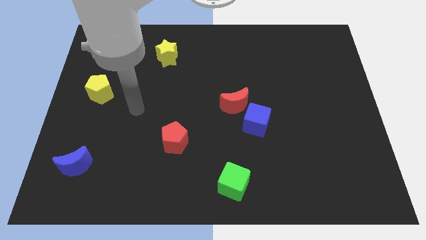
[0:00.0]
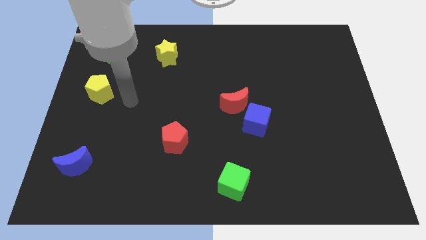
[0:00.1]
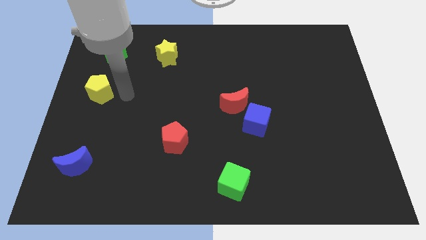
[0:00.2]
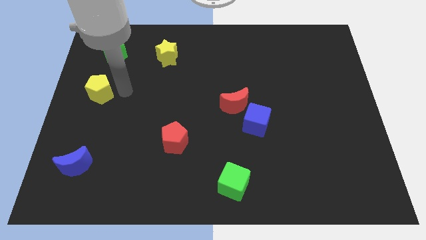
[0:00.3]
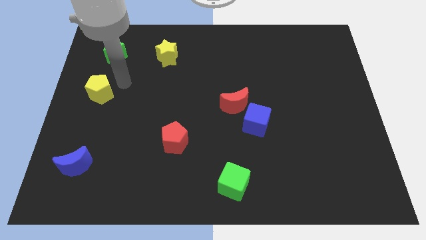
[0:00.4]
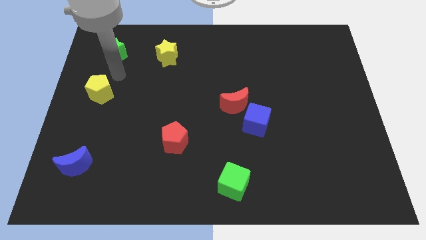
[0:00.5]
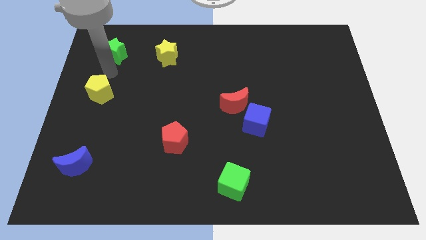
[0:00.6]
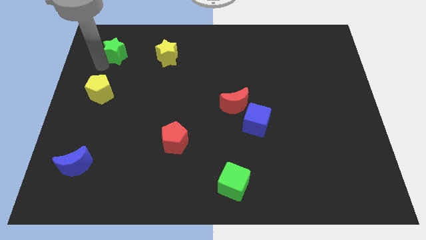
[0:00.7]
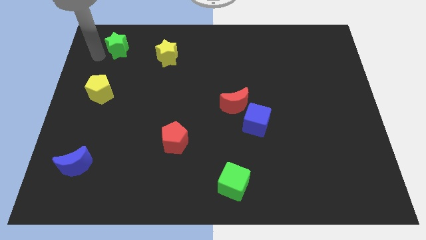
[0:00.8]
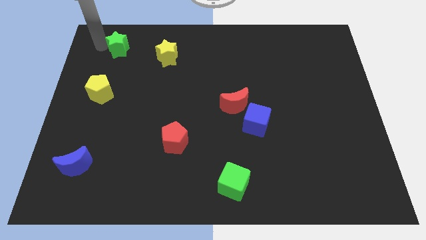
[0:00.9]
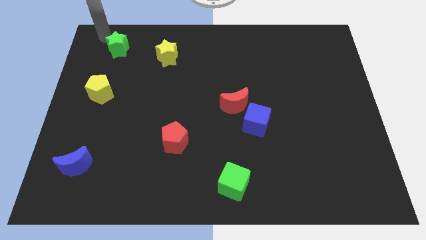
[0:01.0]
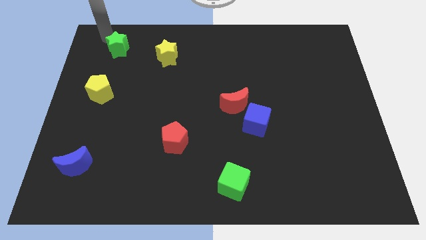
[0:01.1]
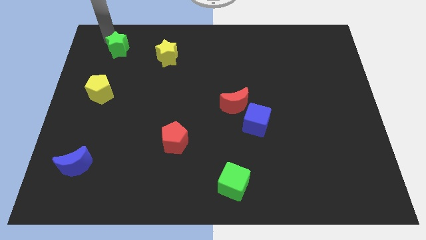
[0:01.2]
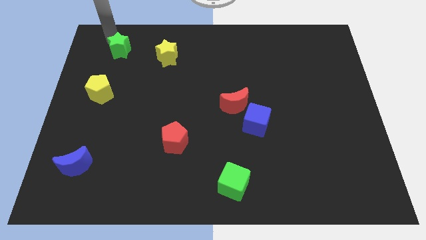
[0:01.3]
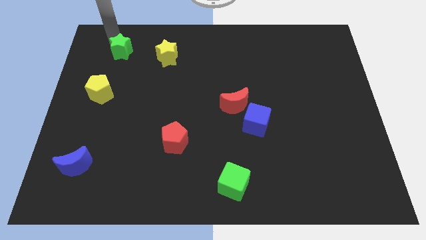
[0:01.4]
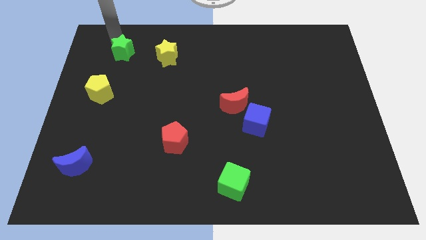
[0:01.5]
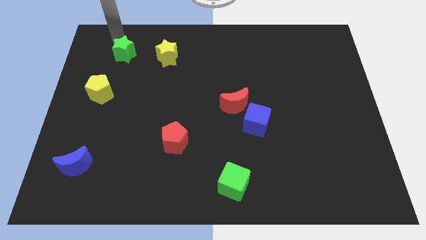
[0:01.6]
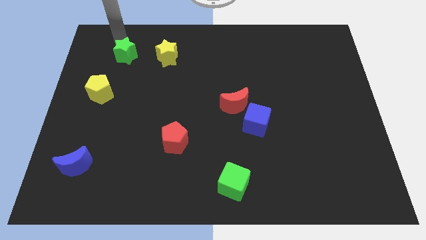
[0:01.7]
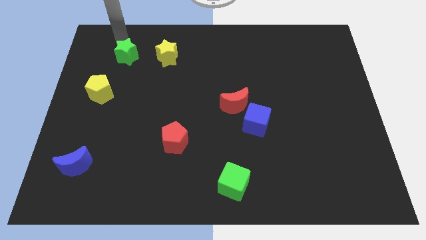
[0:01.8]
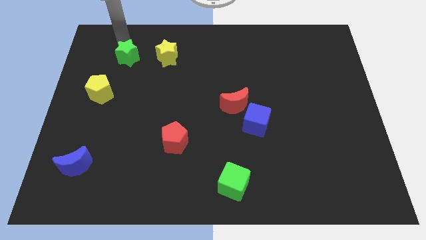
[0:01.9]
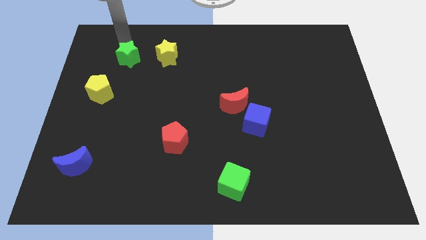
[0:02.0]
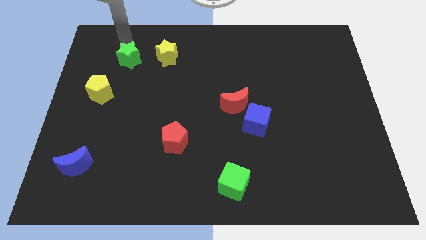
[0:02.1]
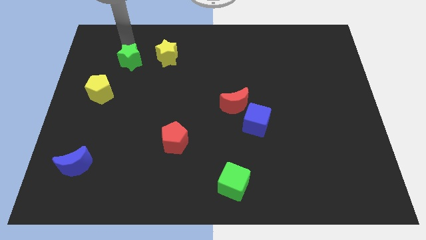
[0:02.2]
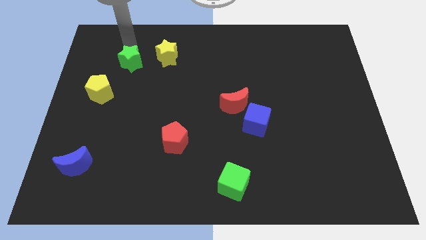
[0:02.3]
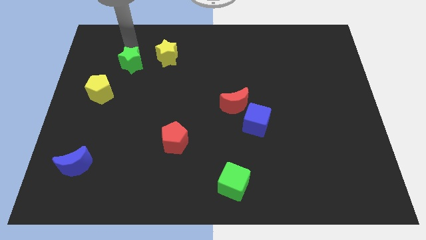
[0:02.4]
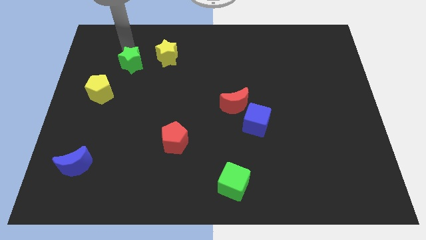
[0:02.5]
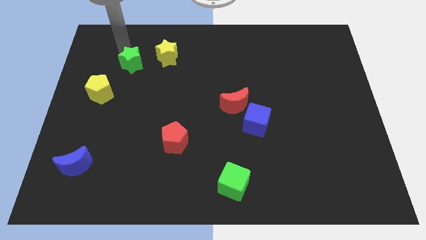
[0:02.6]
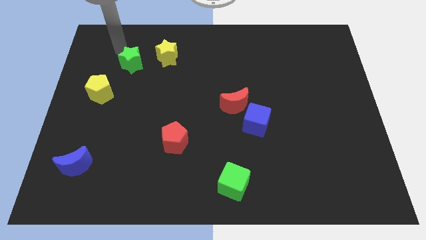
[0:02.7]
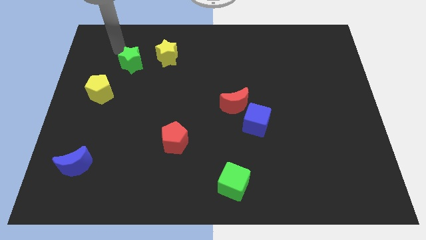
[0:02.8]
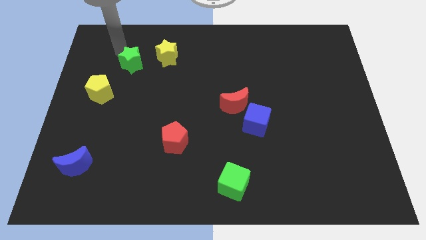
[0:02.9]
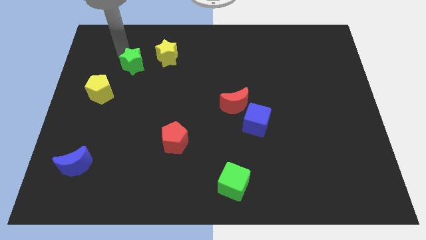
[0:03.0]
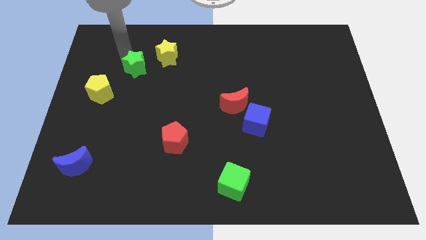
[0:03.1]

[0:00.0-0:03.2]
slightly slide the green star downwards and then to the right

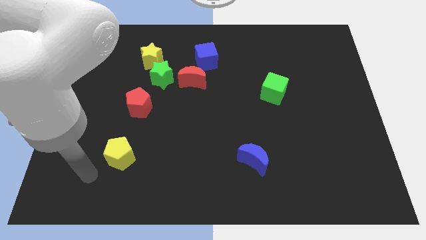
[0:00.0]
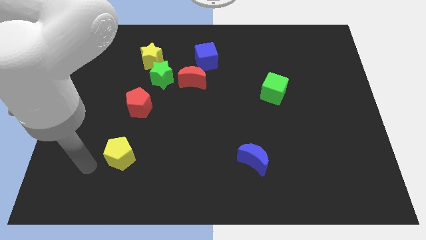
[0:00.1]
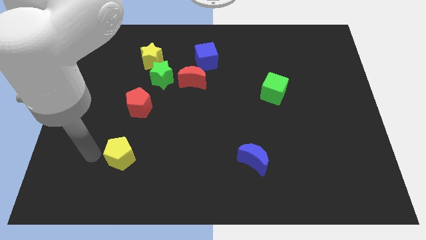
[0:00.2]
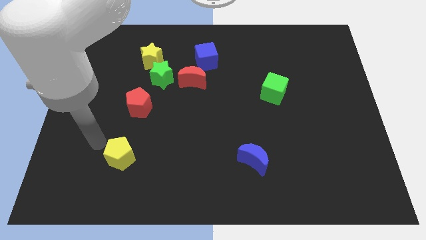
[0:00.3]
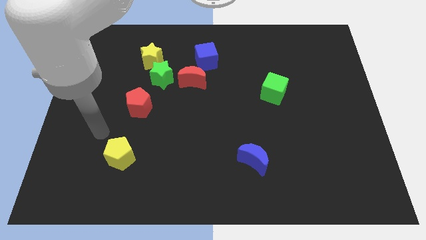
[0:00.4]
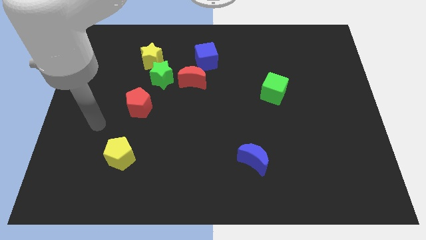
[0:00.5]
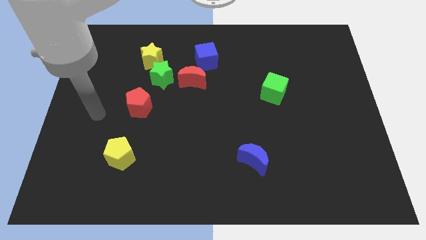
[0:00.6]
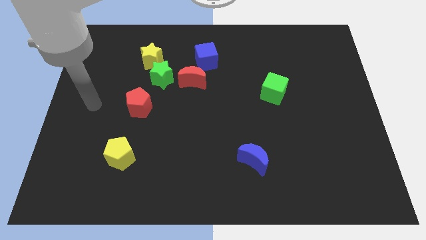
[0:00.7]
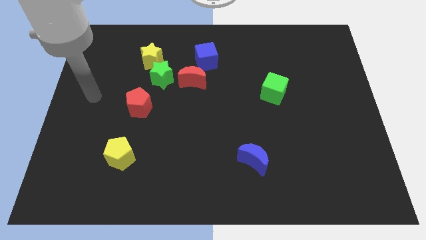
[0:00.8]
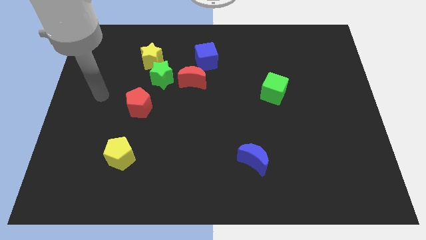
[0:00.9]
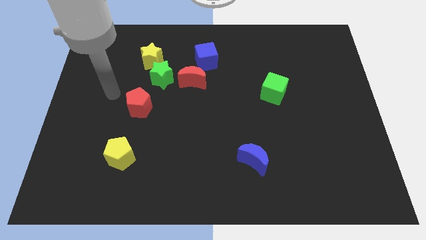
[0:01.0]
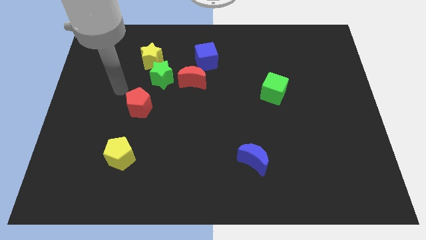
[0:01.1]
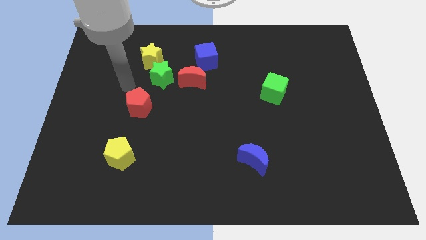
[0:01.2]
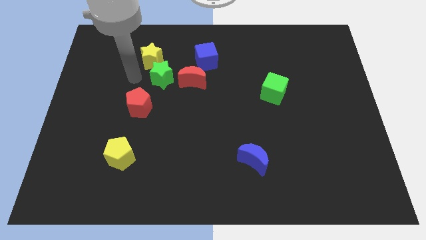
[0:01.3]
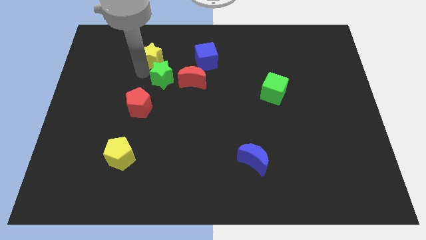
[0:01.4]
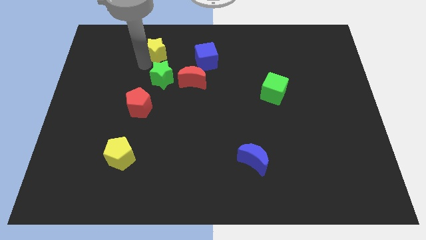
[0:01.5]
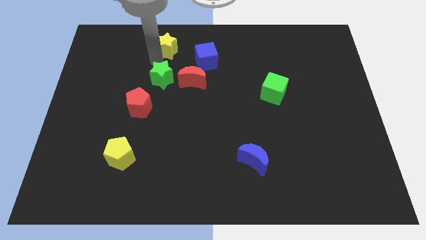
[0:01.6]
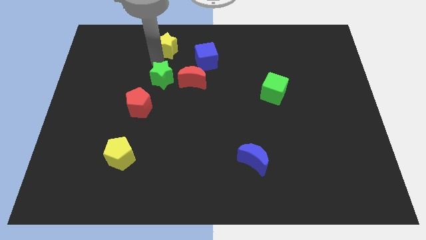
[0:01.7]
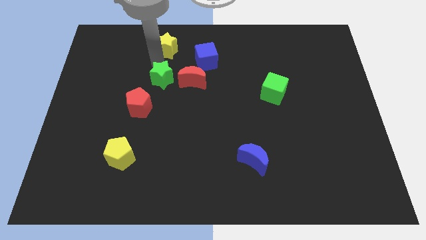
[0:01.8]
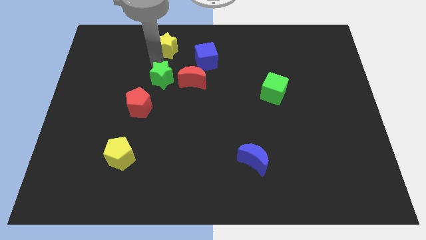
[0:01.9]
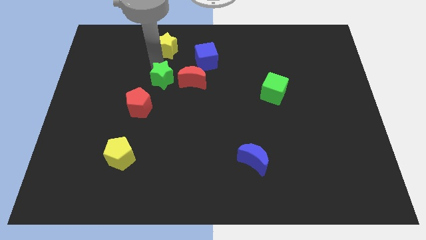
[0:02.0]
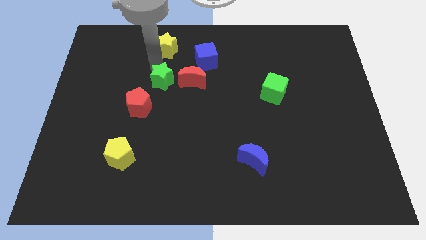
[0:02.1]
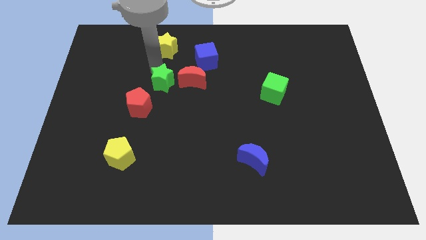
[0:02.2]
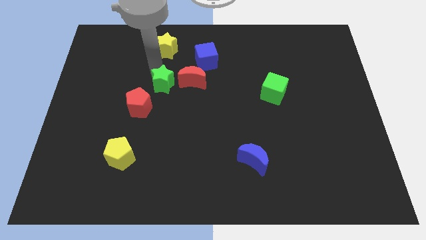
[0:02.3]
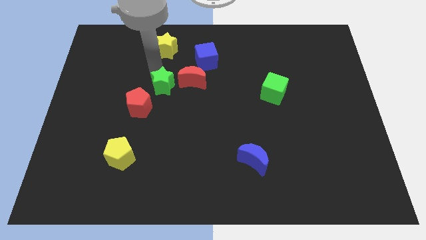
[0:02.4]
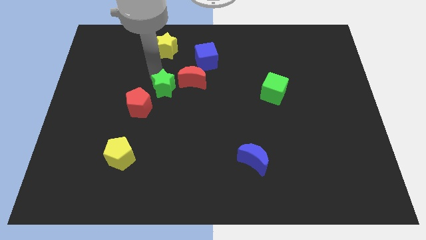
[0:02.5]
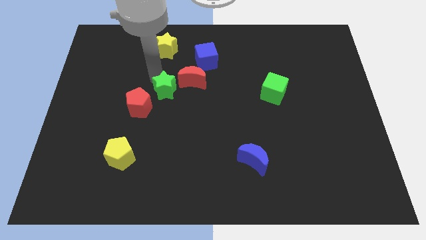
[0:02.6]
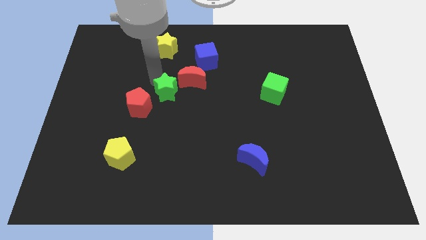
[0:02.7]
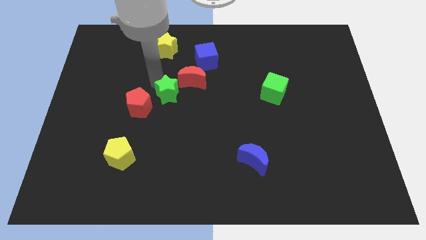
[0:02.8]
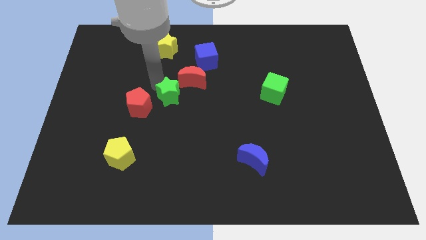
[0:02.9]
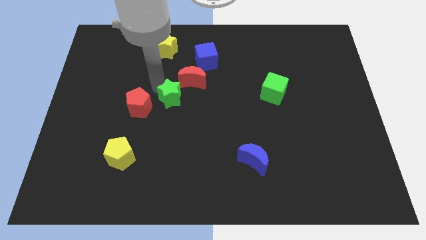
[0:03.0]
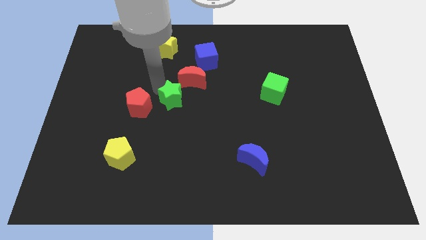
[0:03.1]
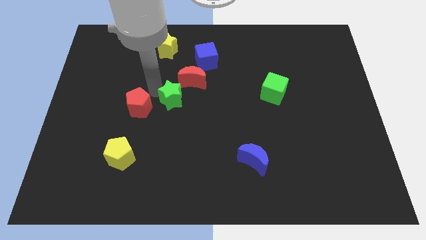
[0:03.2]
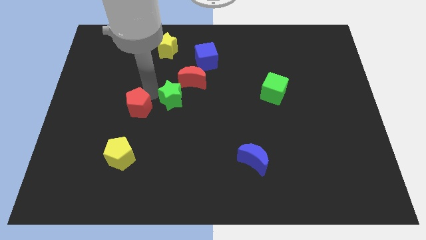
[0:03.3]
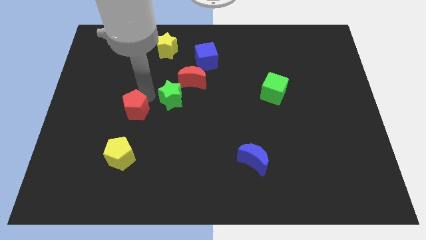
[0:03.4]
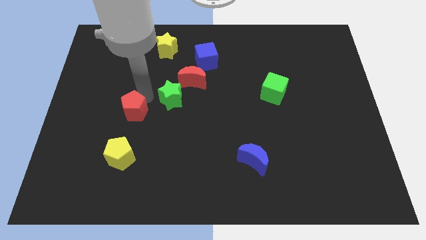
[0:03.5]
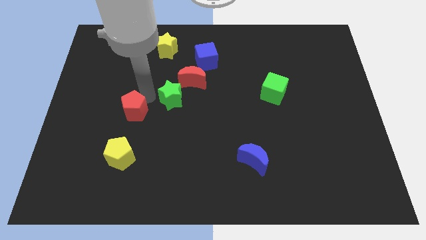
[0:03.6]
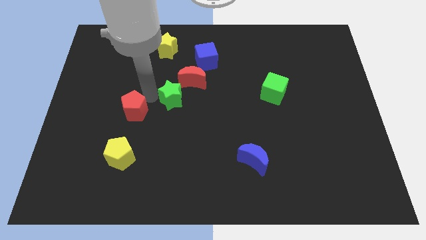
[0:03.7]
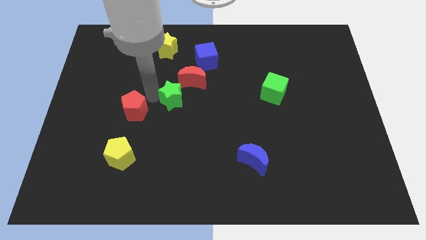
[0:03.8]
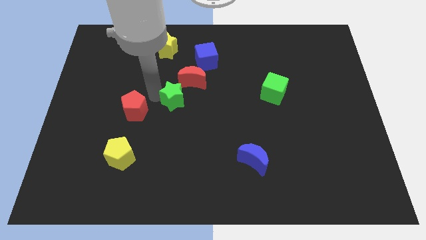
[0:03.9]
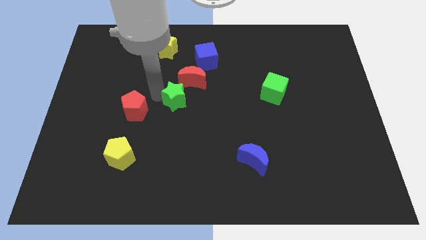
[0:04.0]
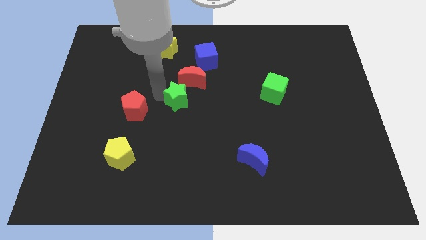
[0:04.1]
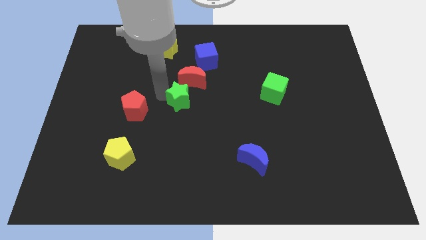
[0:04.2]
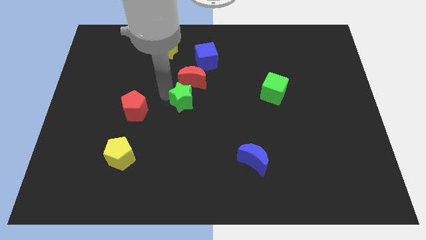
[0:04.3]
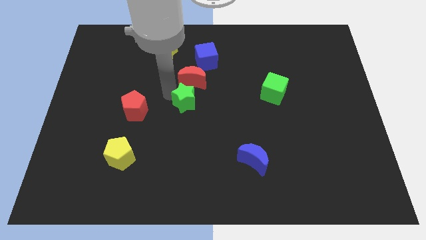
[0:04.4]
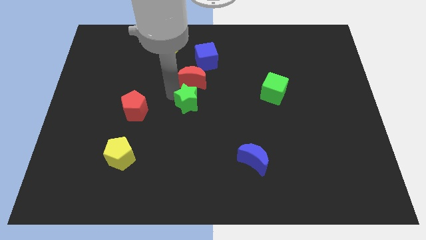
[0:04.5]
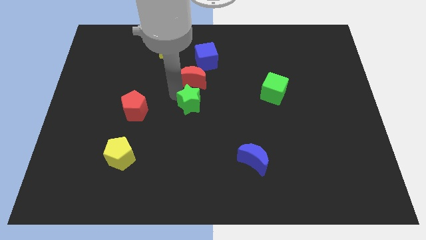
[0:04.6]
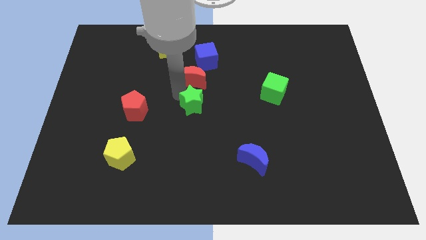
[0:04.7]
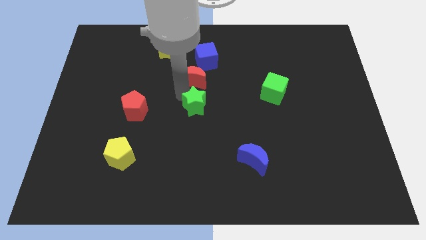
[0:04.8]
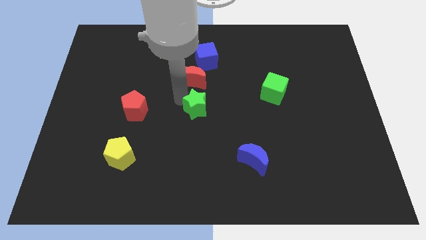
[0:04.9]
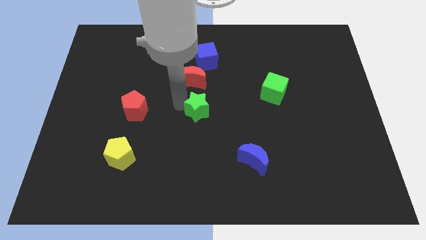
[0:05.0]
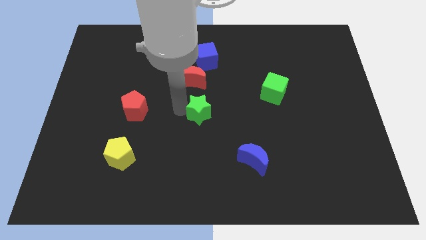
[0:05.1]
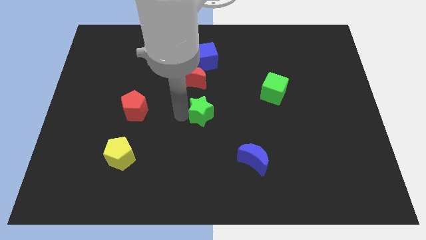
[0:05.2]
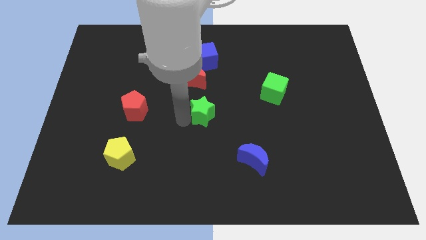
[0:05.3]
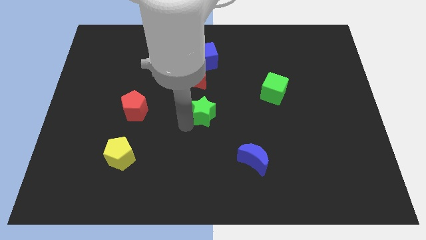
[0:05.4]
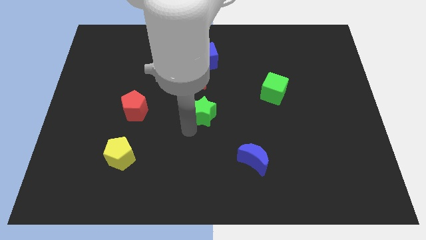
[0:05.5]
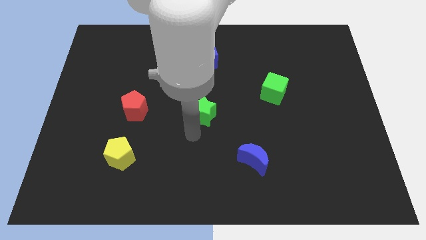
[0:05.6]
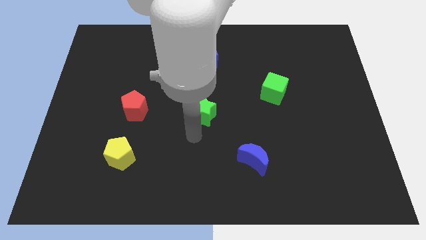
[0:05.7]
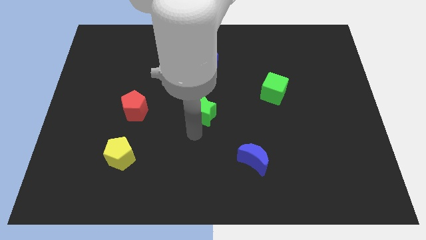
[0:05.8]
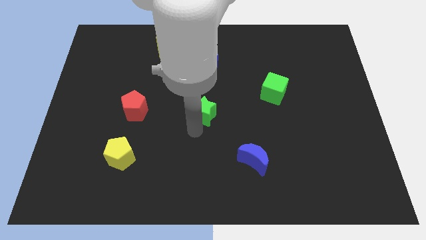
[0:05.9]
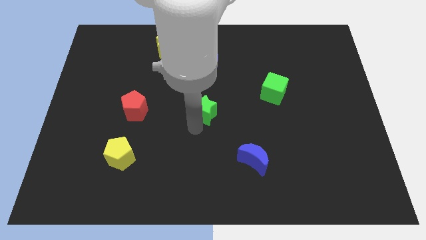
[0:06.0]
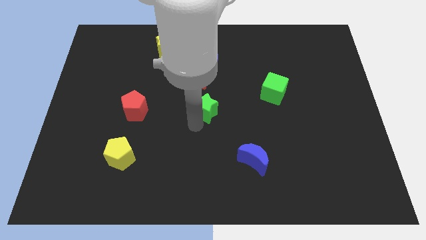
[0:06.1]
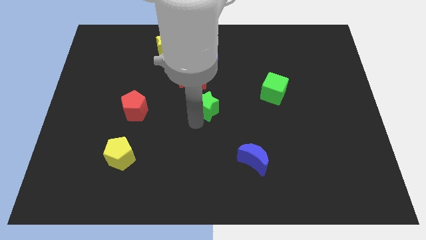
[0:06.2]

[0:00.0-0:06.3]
slightly move the green star right
